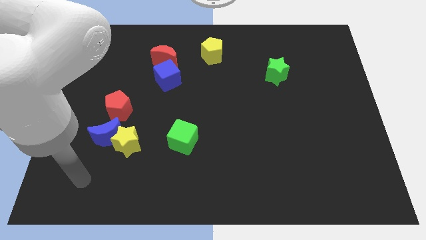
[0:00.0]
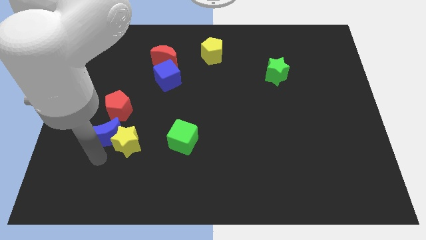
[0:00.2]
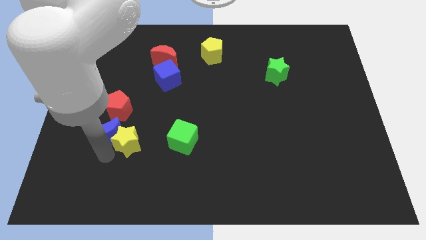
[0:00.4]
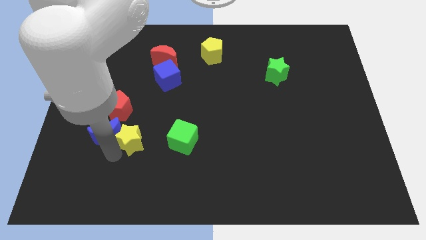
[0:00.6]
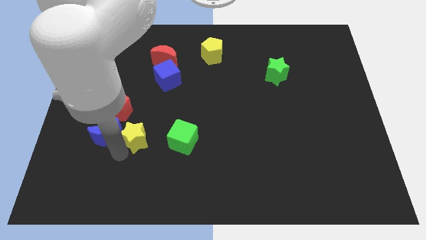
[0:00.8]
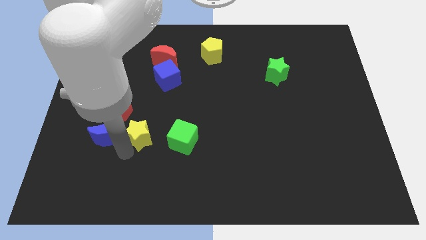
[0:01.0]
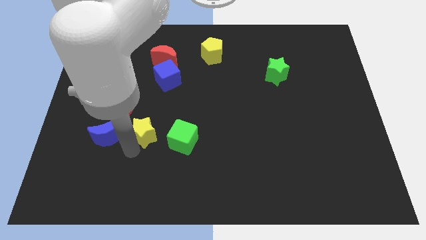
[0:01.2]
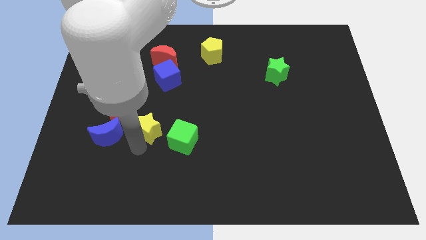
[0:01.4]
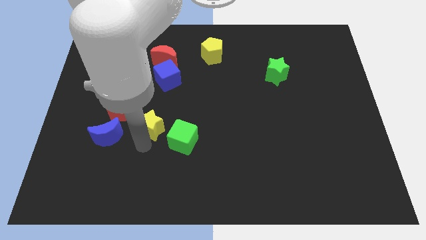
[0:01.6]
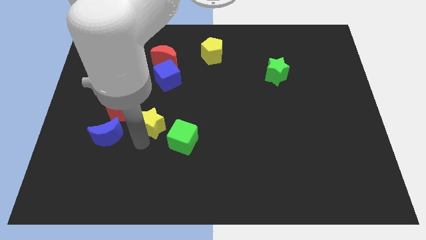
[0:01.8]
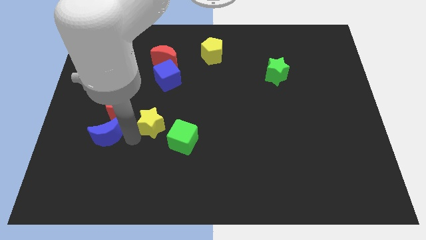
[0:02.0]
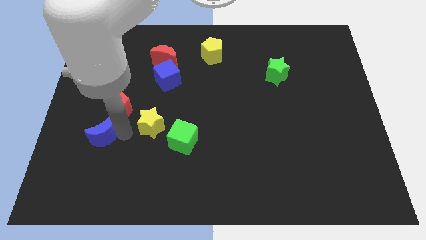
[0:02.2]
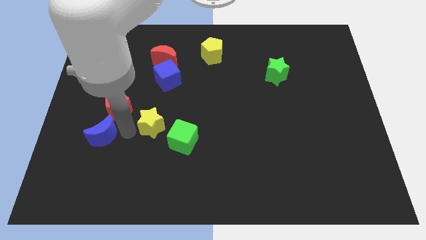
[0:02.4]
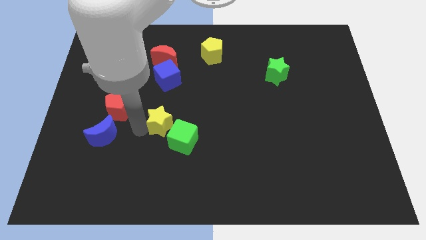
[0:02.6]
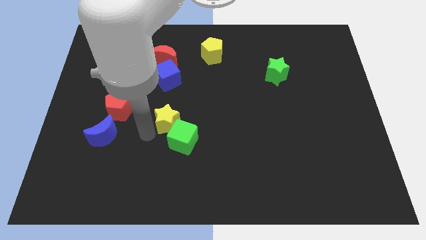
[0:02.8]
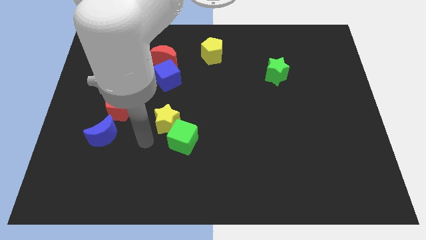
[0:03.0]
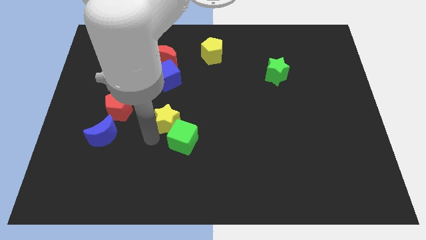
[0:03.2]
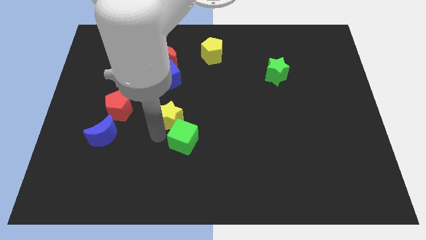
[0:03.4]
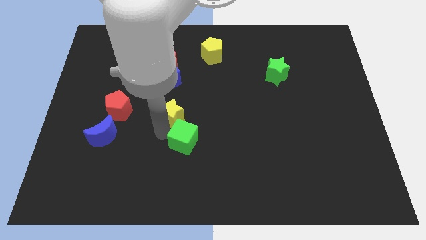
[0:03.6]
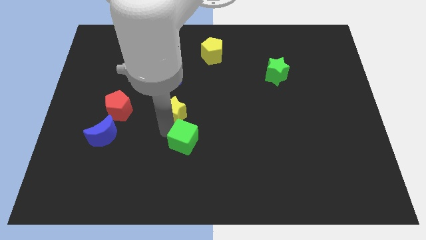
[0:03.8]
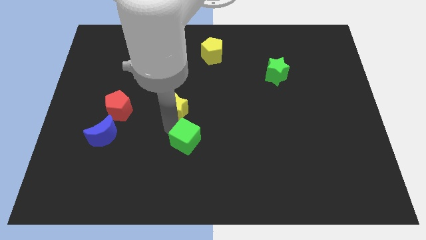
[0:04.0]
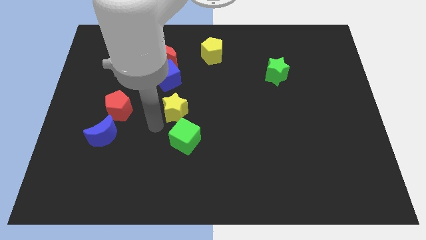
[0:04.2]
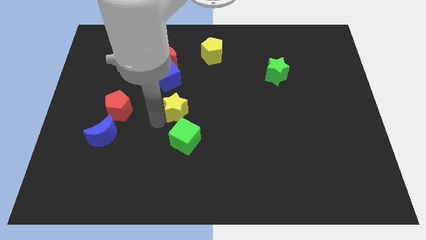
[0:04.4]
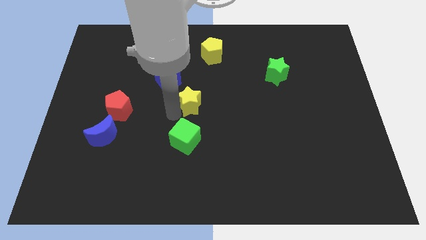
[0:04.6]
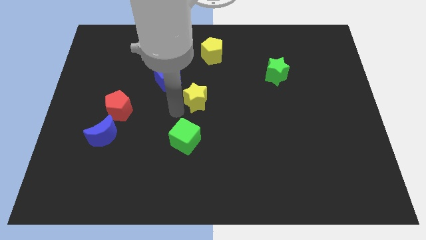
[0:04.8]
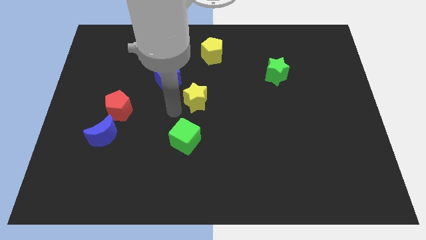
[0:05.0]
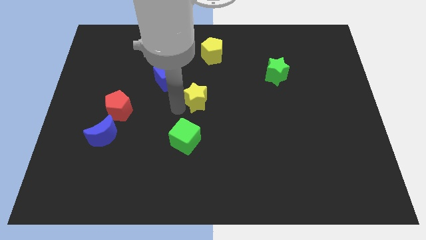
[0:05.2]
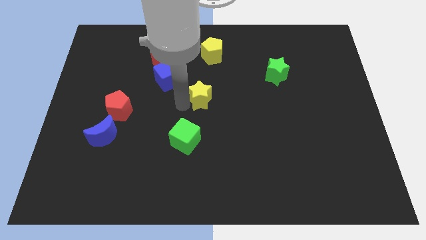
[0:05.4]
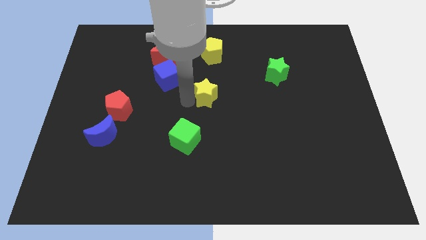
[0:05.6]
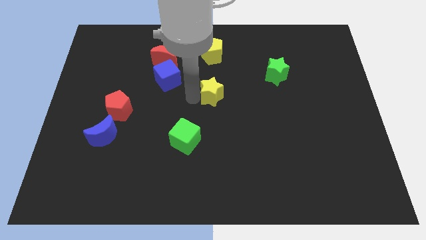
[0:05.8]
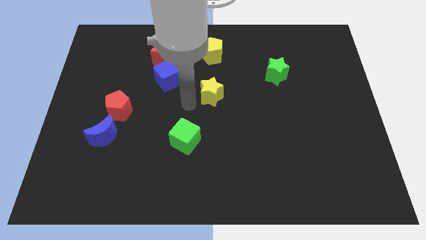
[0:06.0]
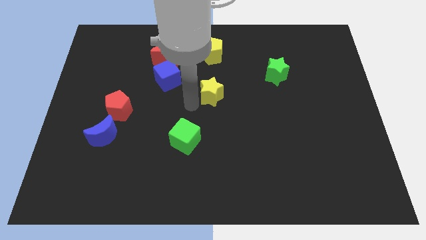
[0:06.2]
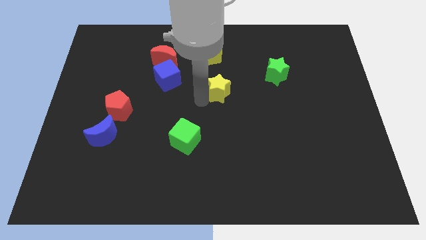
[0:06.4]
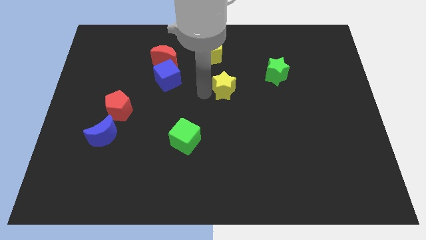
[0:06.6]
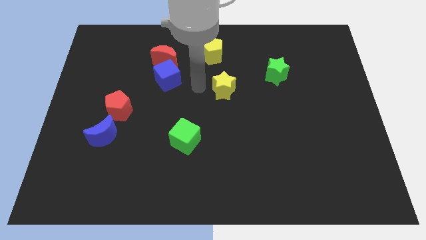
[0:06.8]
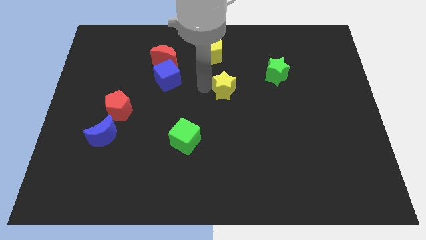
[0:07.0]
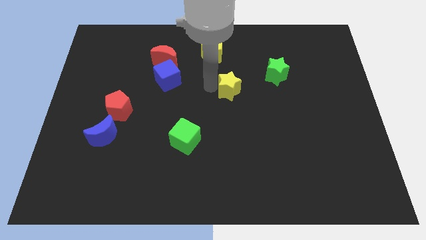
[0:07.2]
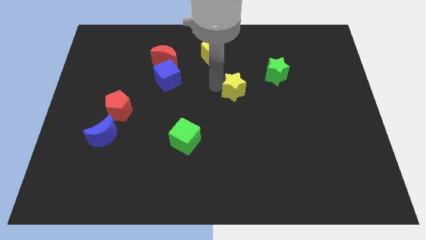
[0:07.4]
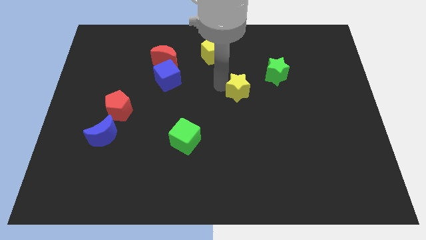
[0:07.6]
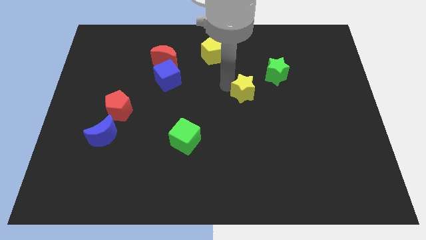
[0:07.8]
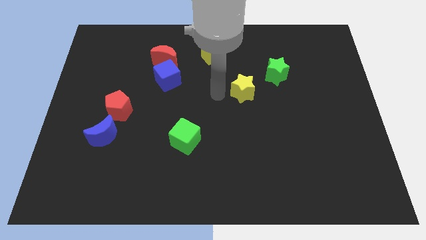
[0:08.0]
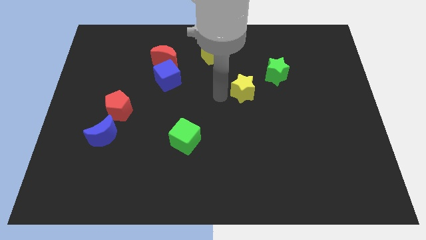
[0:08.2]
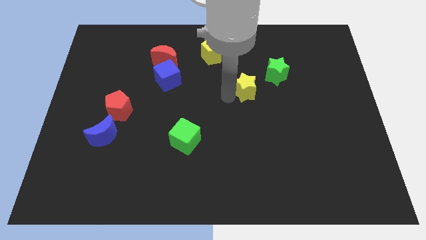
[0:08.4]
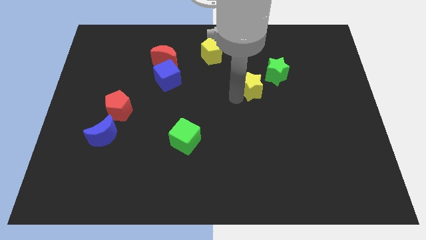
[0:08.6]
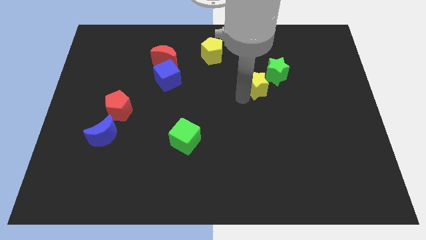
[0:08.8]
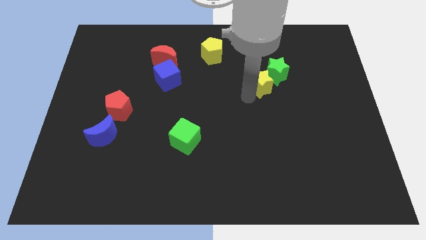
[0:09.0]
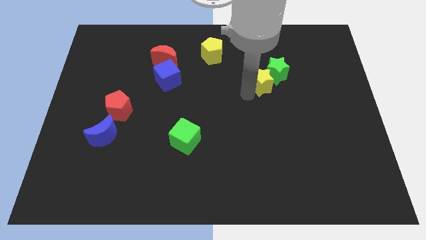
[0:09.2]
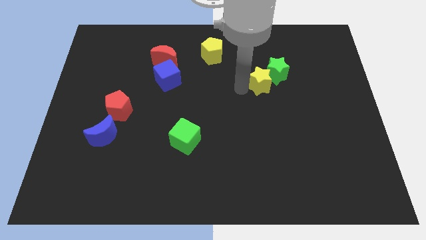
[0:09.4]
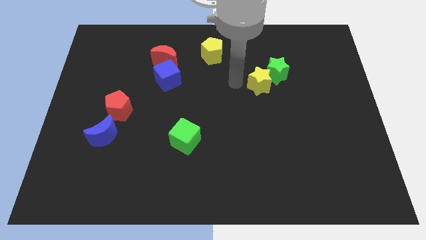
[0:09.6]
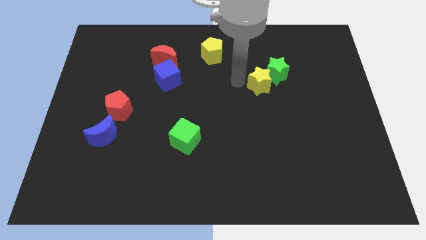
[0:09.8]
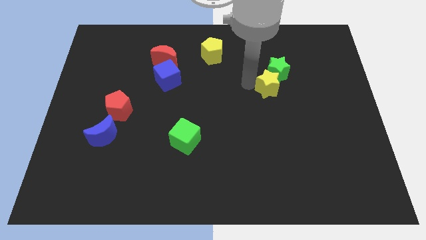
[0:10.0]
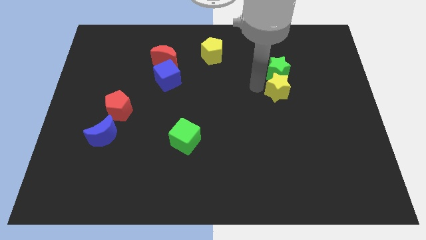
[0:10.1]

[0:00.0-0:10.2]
slide the yellow star diagonally down and to the right of the green star

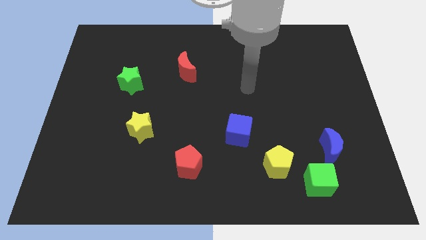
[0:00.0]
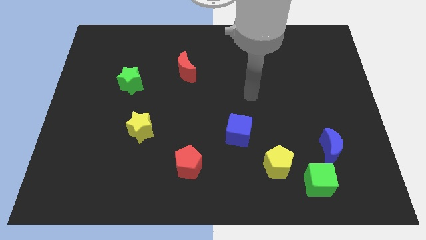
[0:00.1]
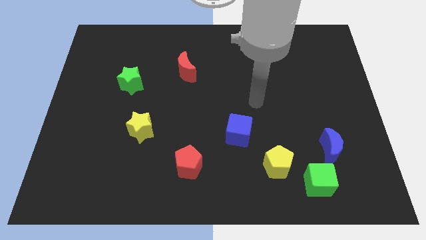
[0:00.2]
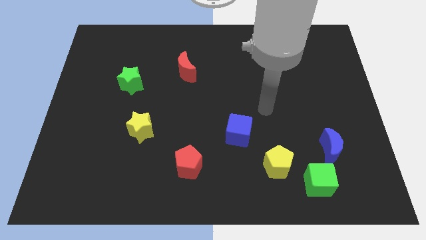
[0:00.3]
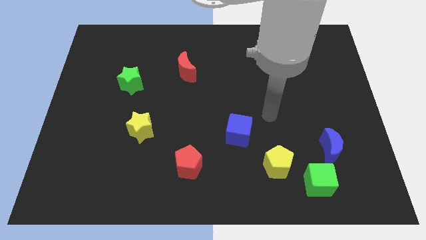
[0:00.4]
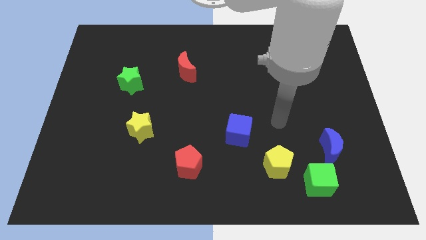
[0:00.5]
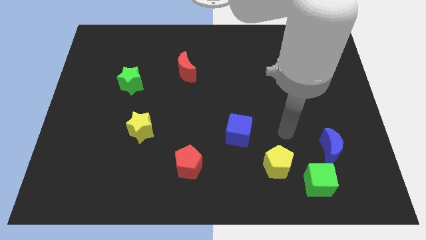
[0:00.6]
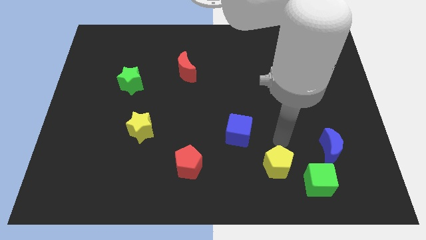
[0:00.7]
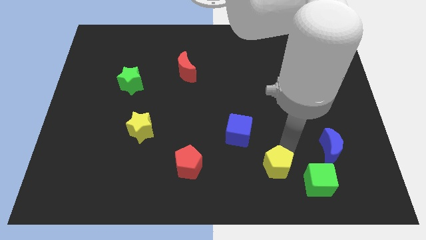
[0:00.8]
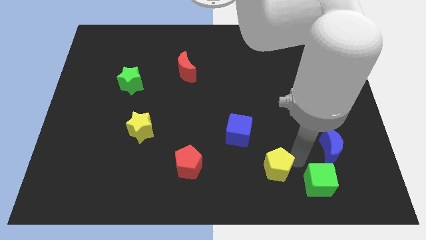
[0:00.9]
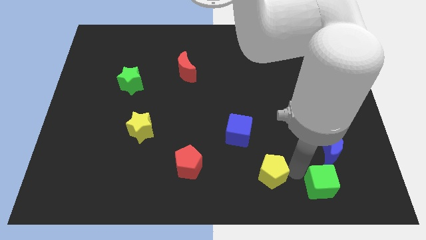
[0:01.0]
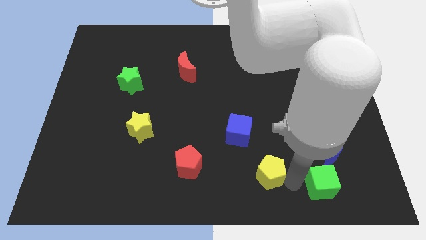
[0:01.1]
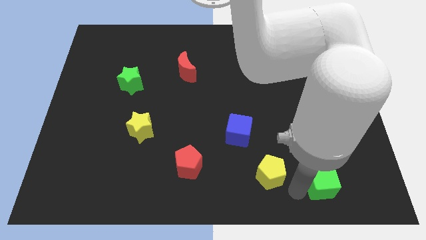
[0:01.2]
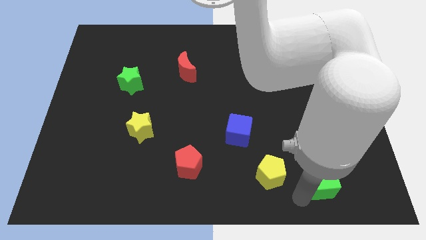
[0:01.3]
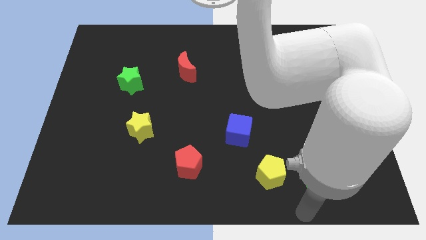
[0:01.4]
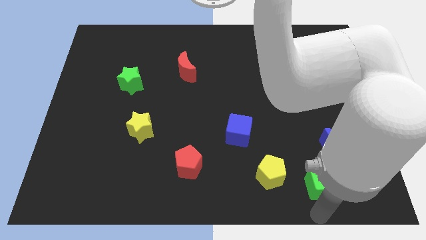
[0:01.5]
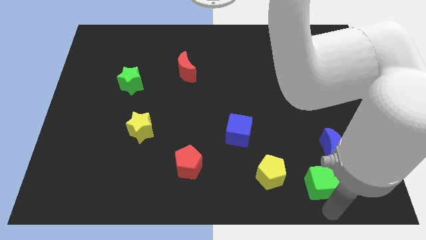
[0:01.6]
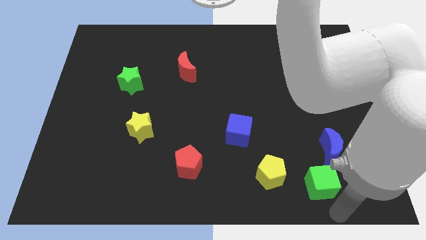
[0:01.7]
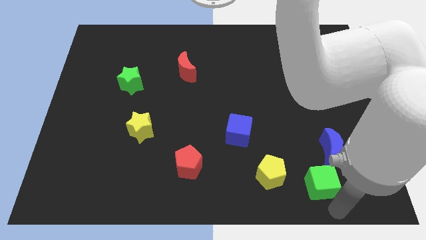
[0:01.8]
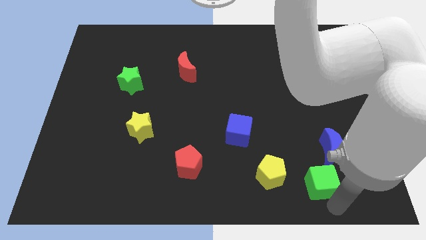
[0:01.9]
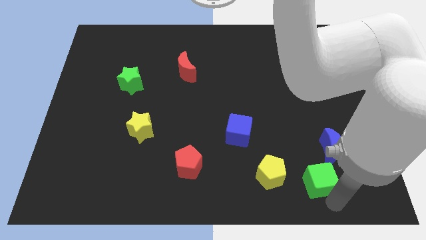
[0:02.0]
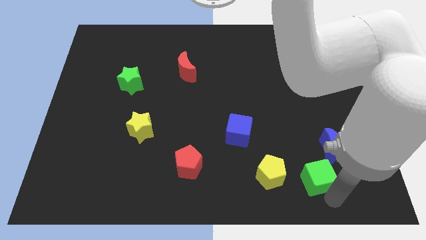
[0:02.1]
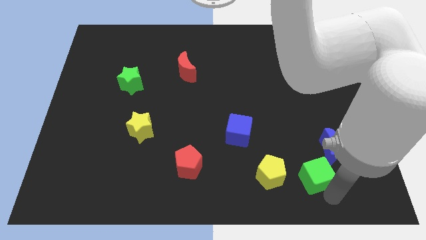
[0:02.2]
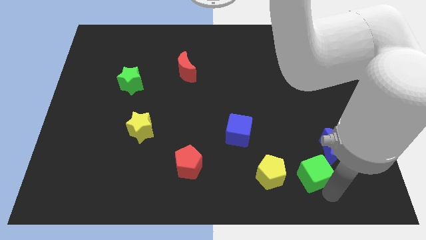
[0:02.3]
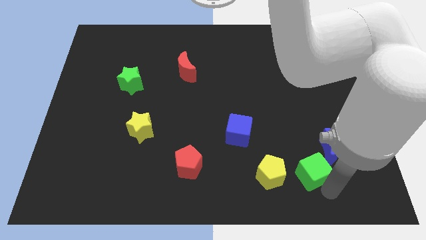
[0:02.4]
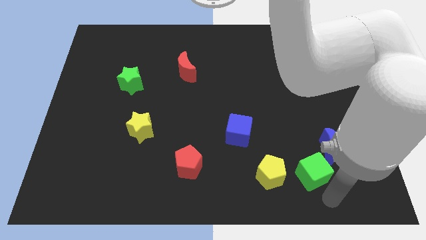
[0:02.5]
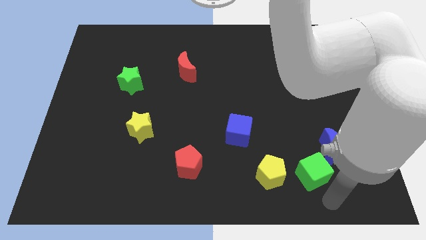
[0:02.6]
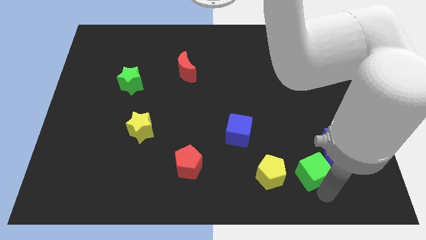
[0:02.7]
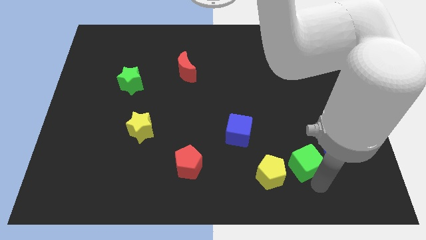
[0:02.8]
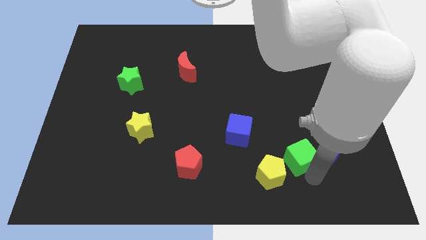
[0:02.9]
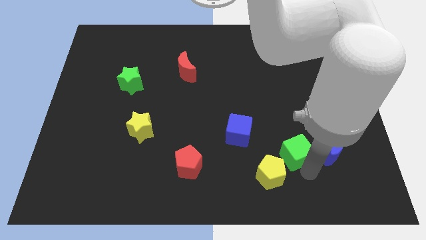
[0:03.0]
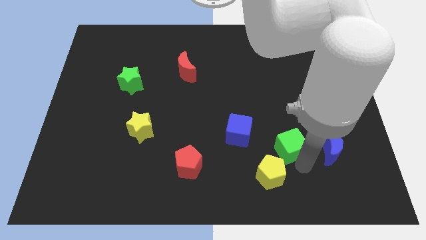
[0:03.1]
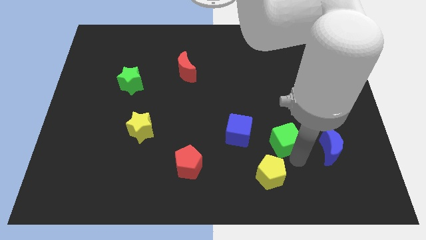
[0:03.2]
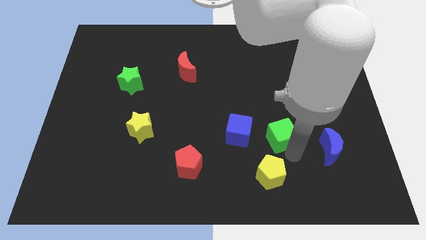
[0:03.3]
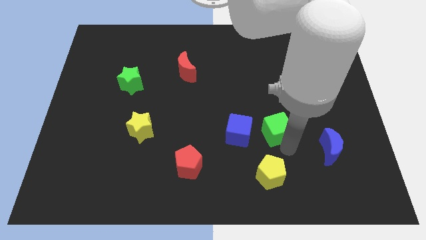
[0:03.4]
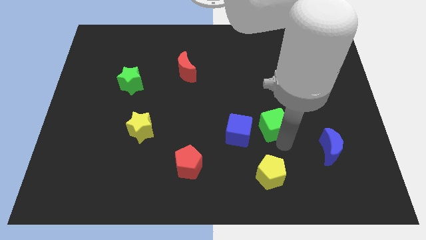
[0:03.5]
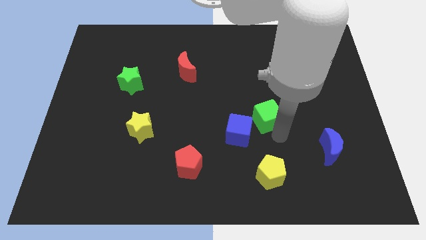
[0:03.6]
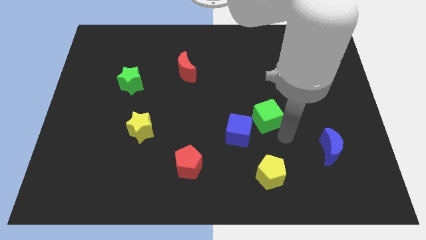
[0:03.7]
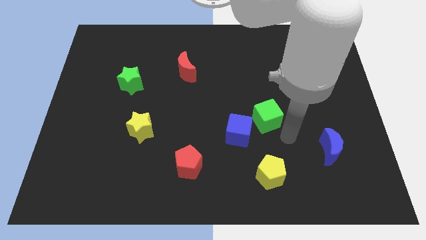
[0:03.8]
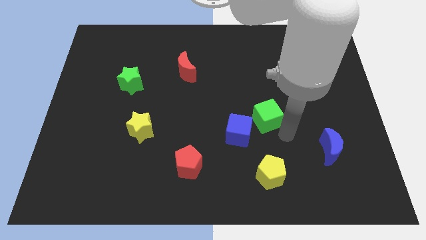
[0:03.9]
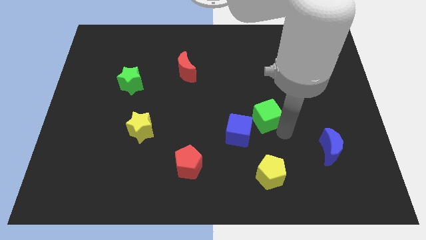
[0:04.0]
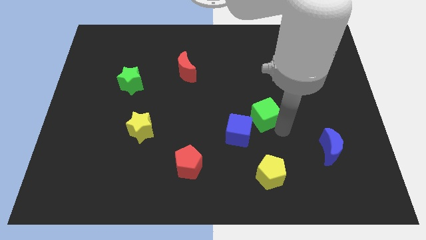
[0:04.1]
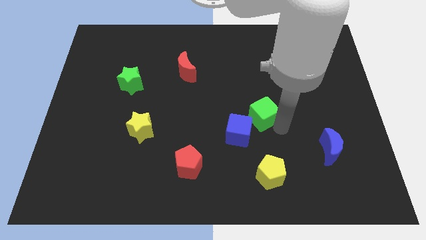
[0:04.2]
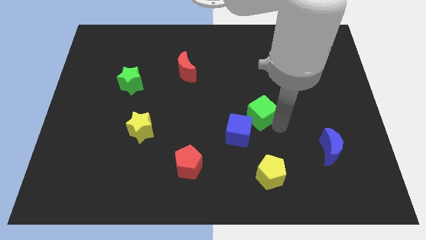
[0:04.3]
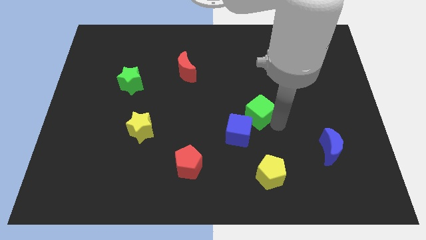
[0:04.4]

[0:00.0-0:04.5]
put the green cube to the top of the blue cube
